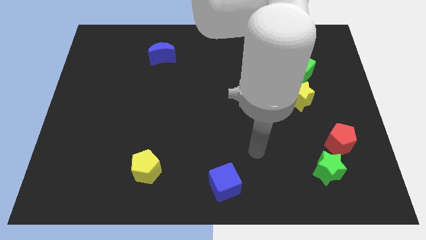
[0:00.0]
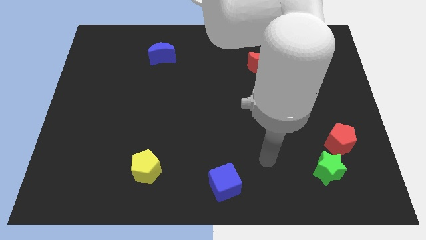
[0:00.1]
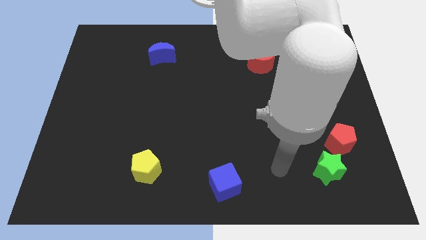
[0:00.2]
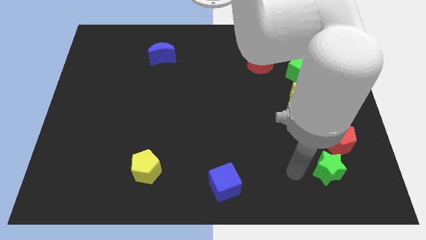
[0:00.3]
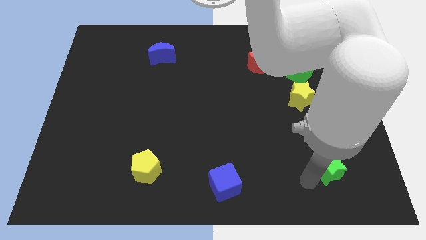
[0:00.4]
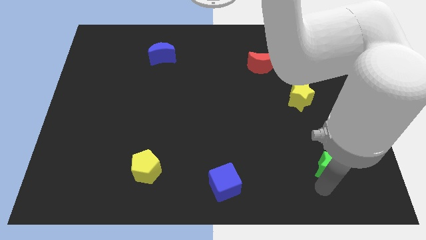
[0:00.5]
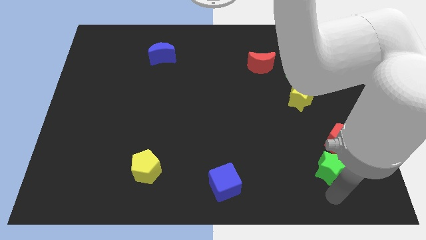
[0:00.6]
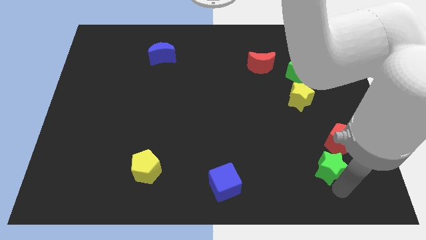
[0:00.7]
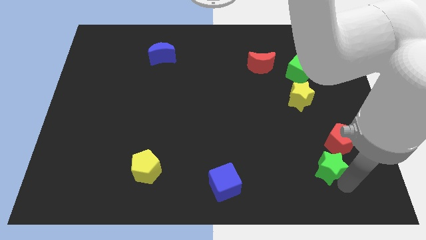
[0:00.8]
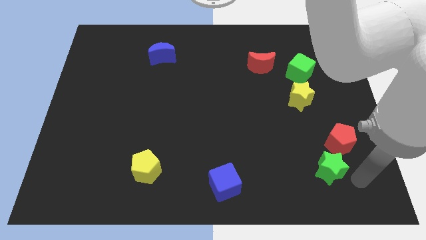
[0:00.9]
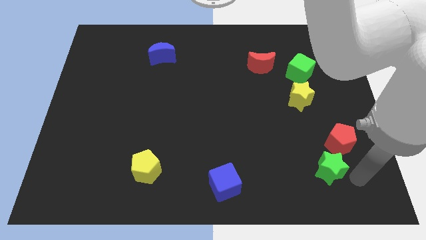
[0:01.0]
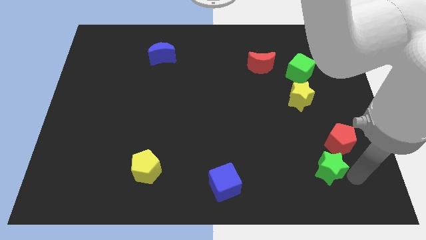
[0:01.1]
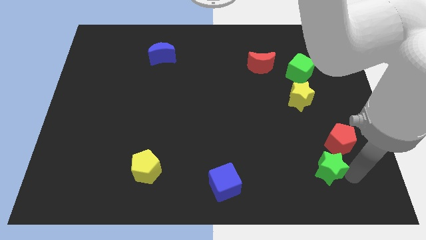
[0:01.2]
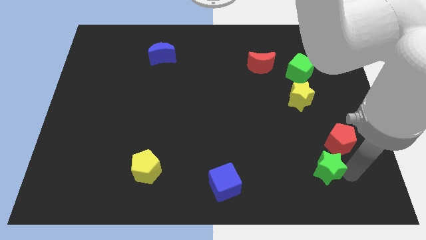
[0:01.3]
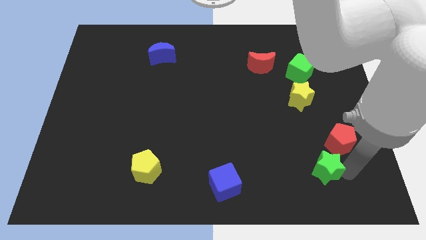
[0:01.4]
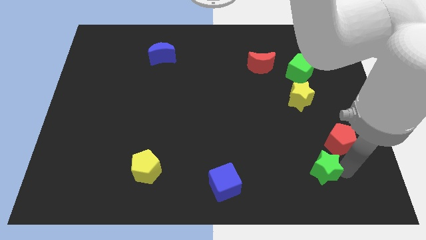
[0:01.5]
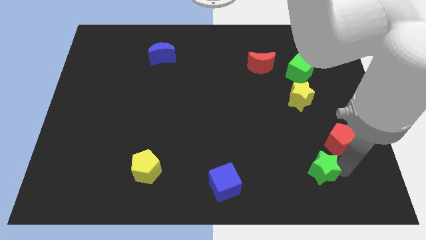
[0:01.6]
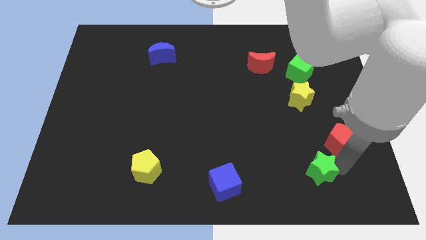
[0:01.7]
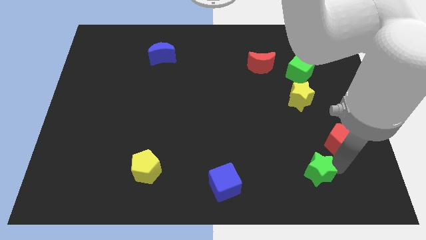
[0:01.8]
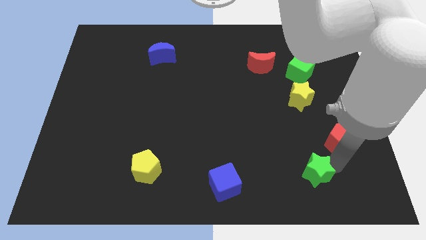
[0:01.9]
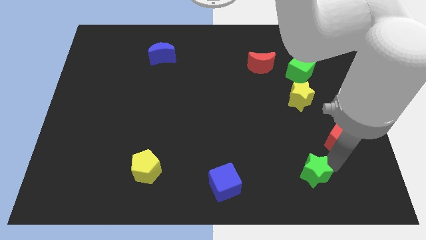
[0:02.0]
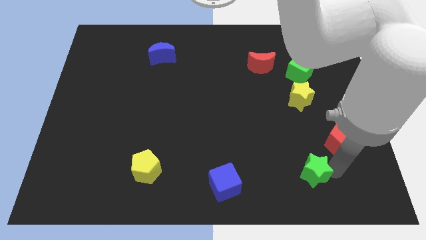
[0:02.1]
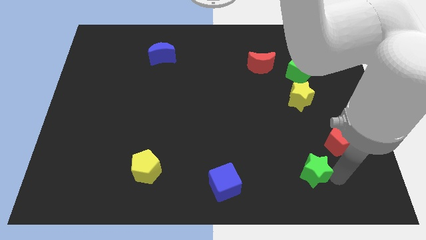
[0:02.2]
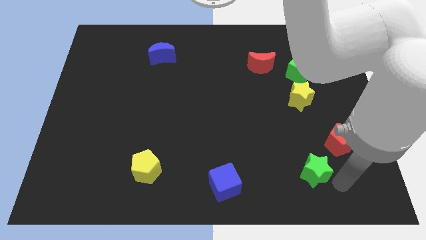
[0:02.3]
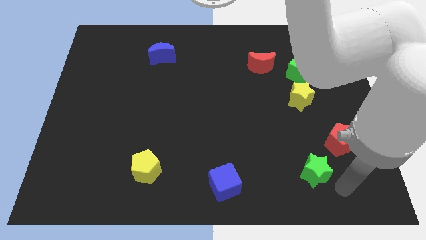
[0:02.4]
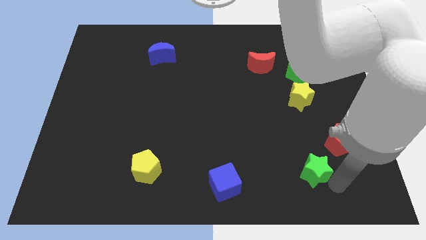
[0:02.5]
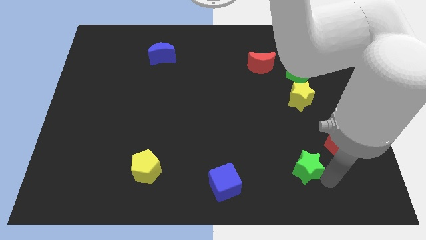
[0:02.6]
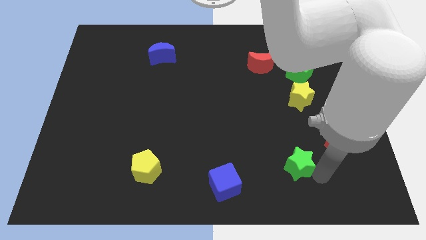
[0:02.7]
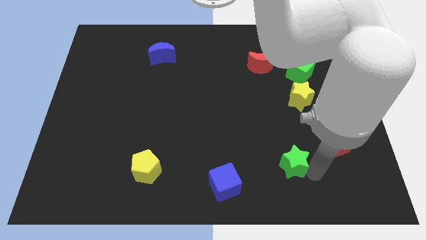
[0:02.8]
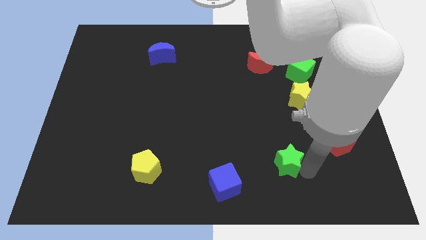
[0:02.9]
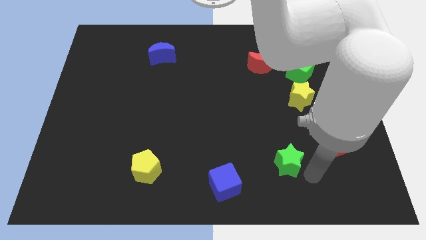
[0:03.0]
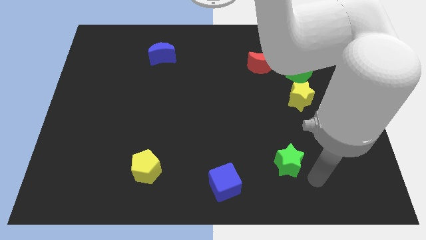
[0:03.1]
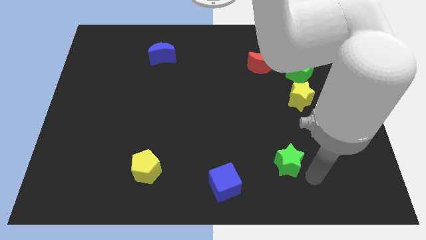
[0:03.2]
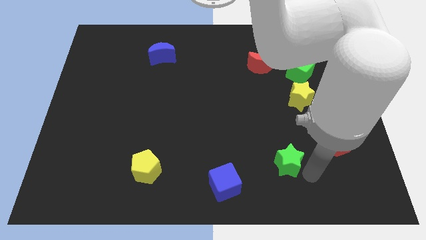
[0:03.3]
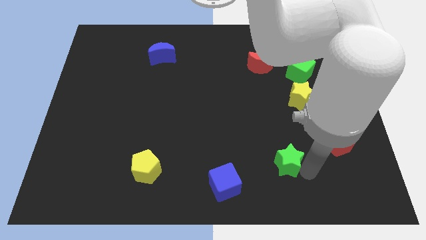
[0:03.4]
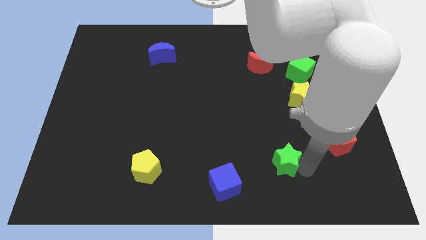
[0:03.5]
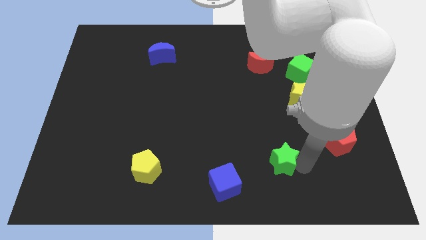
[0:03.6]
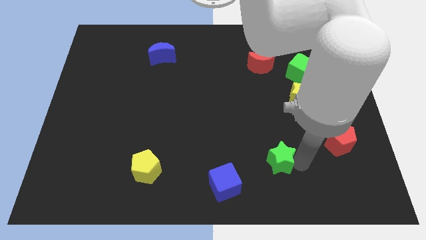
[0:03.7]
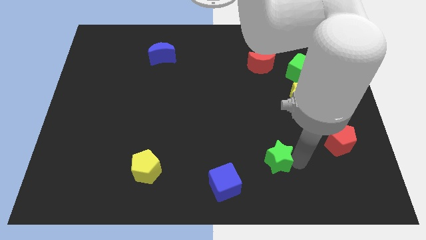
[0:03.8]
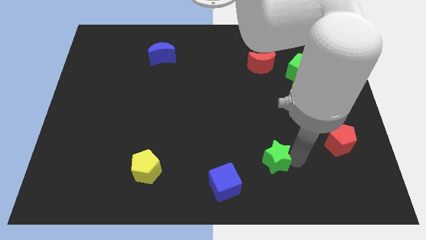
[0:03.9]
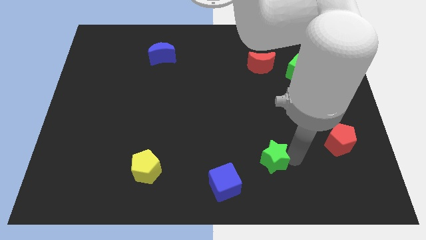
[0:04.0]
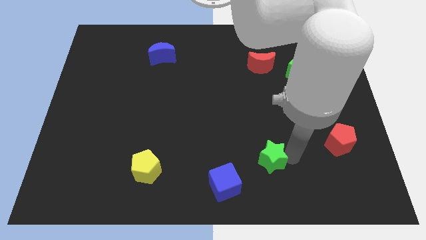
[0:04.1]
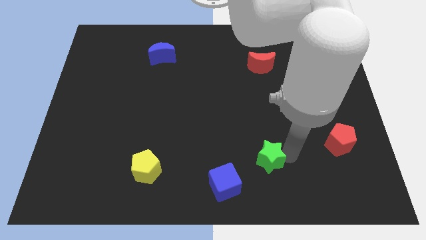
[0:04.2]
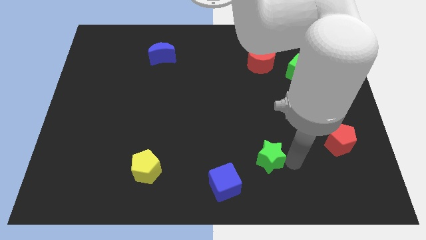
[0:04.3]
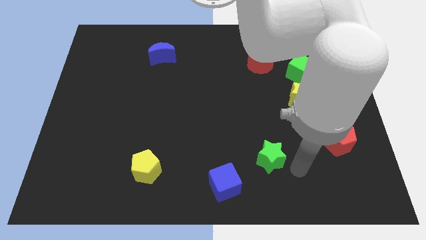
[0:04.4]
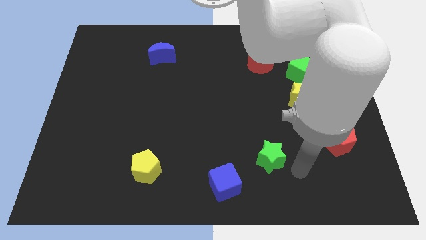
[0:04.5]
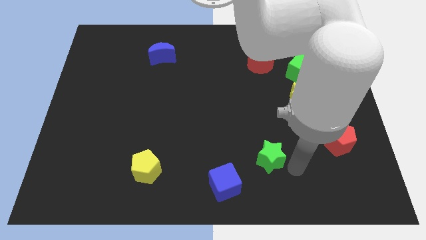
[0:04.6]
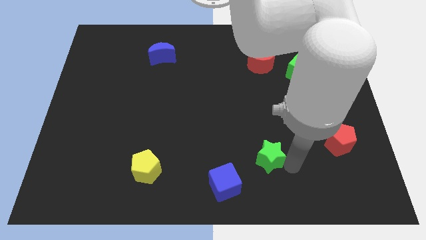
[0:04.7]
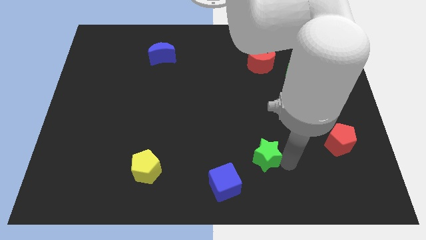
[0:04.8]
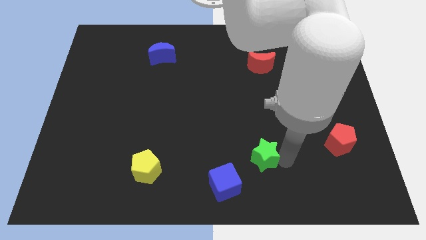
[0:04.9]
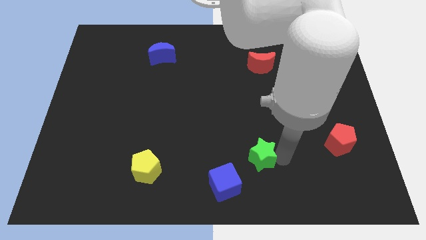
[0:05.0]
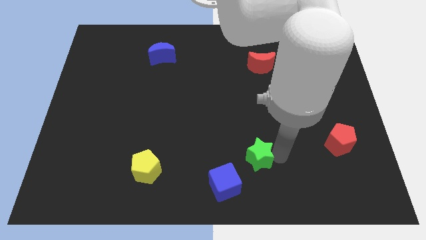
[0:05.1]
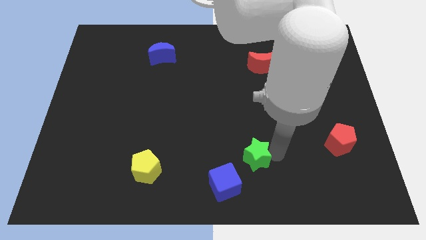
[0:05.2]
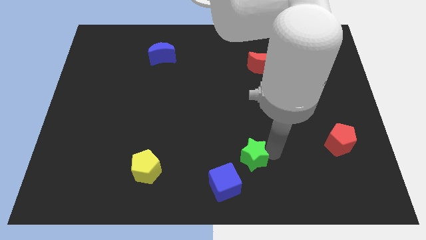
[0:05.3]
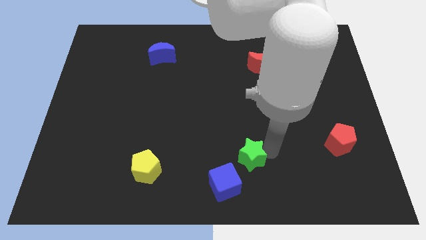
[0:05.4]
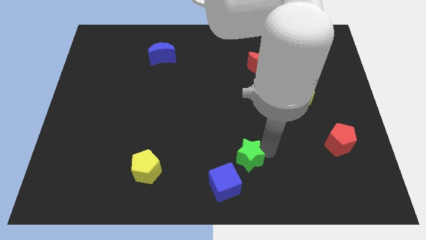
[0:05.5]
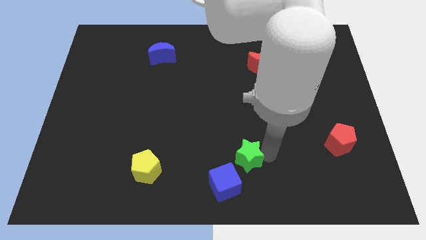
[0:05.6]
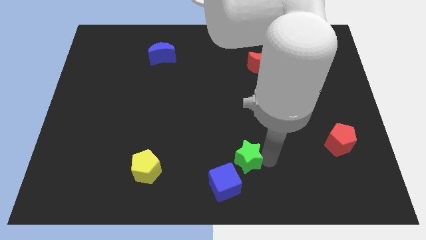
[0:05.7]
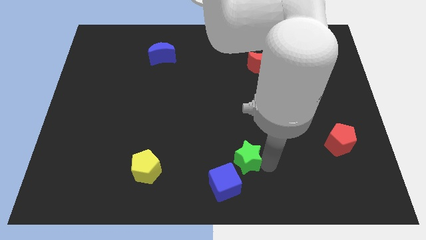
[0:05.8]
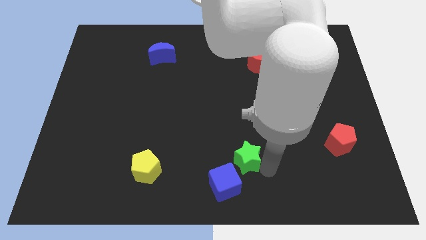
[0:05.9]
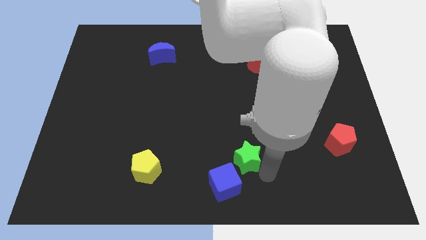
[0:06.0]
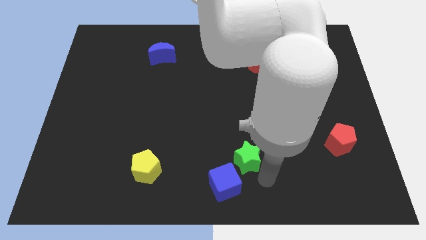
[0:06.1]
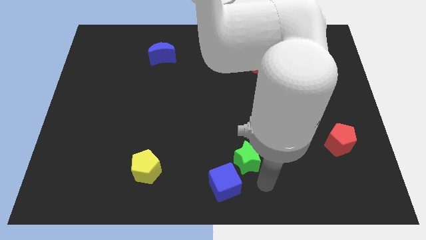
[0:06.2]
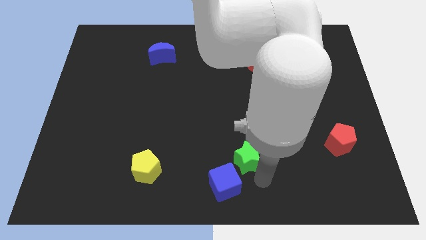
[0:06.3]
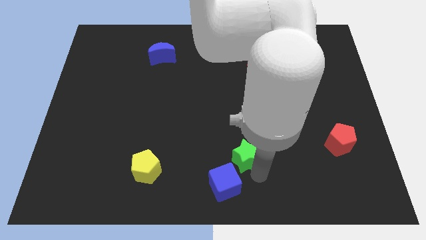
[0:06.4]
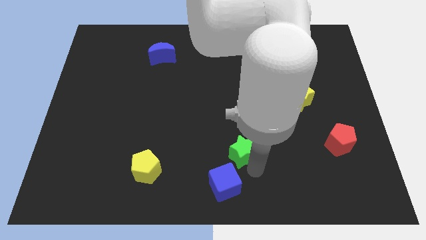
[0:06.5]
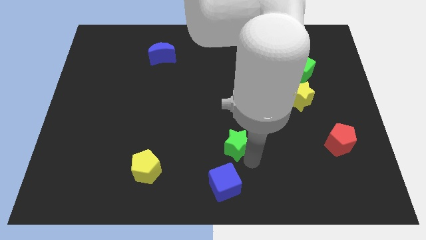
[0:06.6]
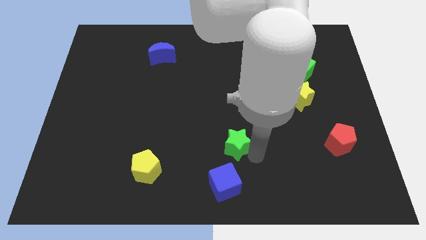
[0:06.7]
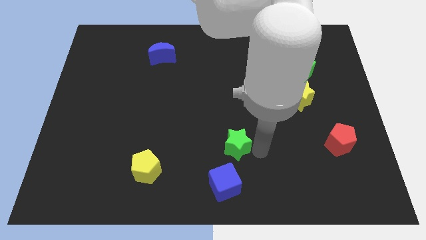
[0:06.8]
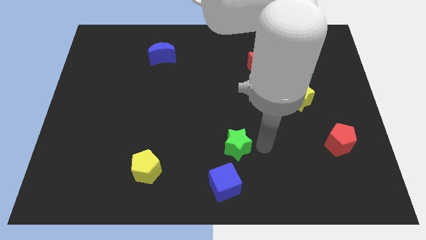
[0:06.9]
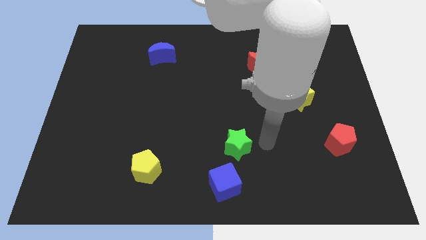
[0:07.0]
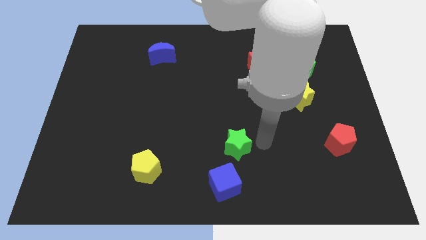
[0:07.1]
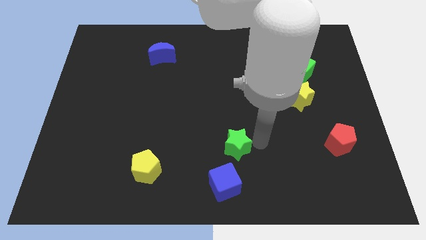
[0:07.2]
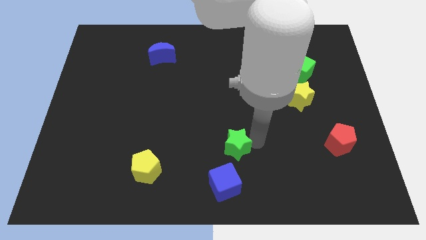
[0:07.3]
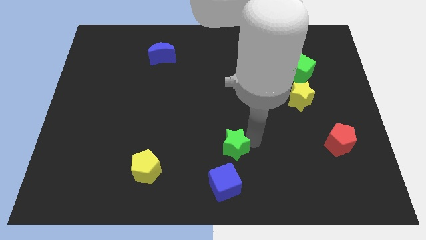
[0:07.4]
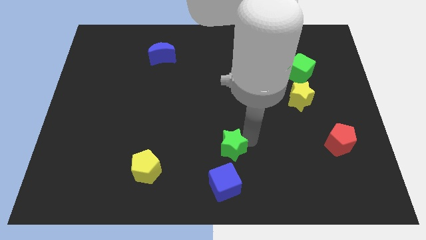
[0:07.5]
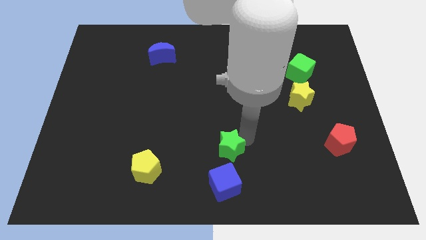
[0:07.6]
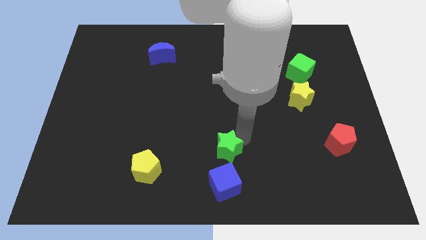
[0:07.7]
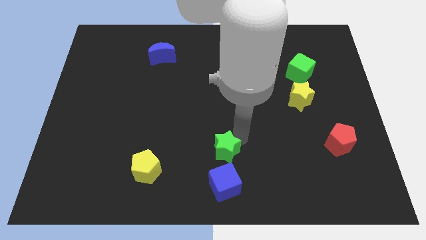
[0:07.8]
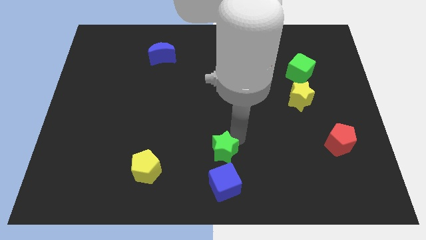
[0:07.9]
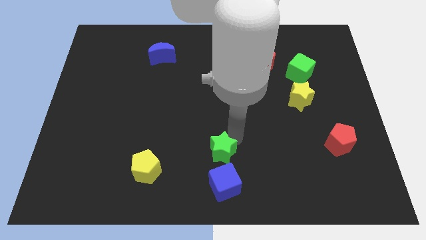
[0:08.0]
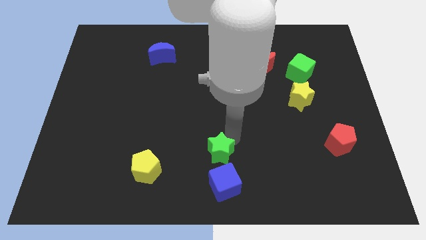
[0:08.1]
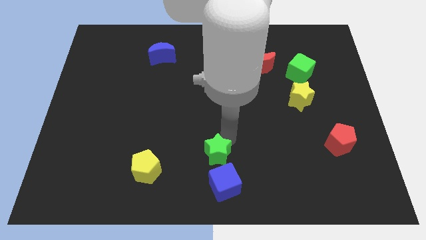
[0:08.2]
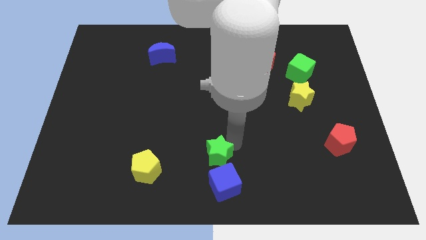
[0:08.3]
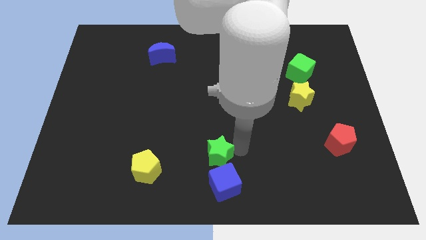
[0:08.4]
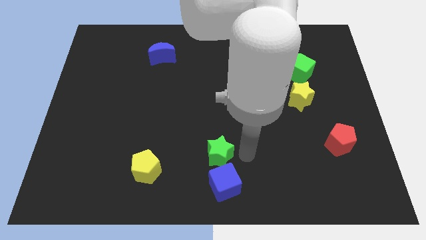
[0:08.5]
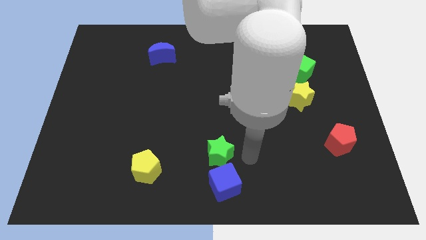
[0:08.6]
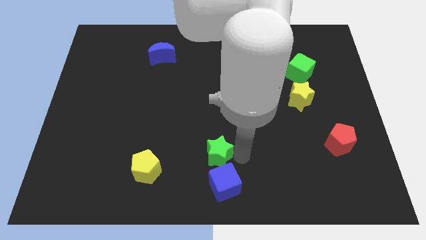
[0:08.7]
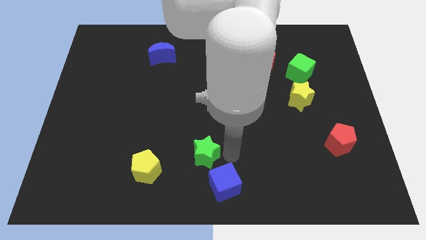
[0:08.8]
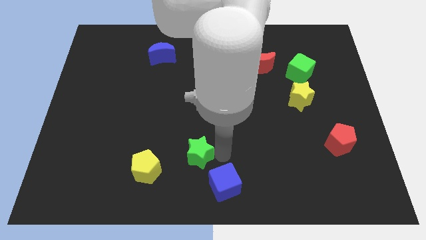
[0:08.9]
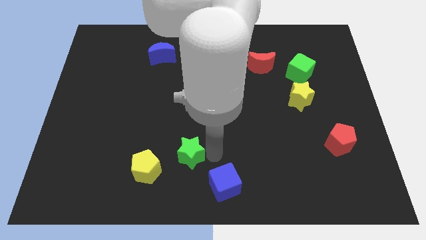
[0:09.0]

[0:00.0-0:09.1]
slide the green star diagonally up and to the right of the yellow pentagon
